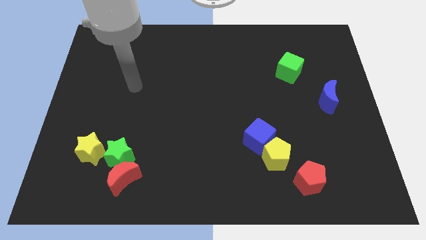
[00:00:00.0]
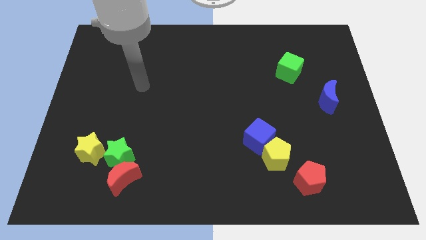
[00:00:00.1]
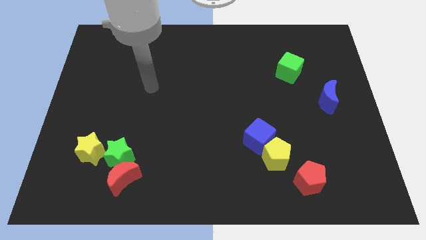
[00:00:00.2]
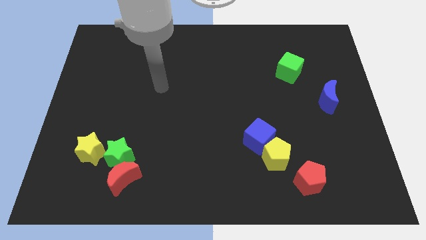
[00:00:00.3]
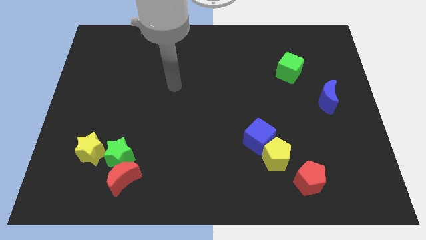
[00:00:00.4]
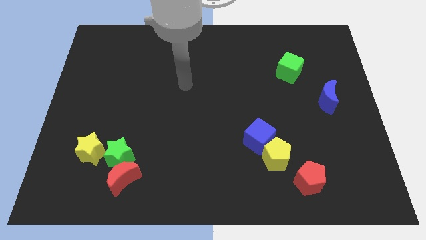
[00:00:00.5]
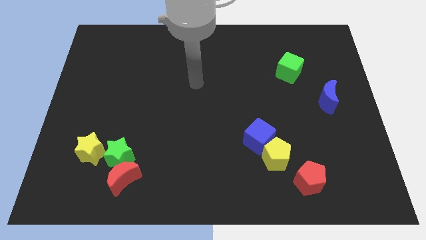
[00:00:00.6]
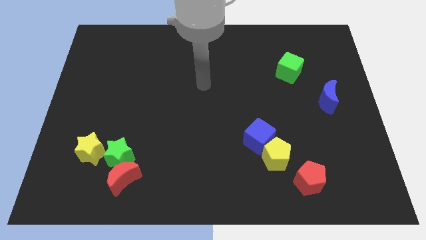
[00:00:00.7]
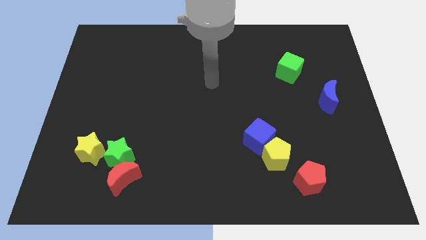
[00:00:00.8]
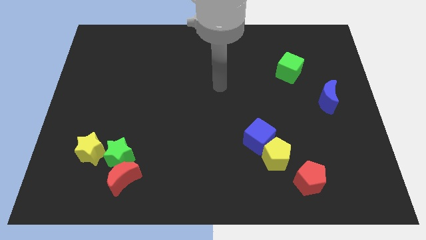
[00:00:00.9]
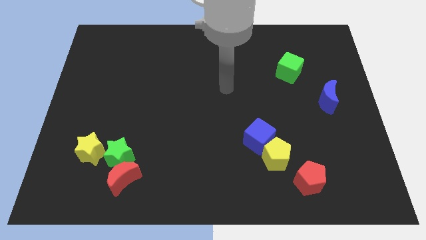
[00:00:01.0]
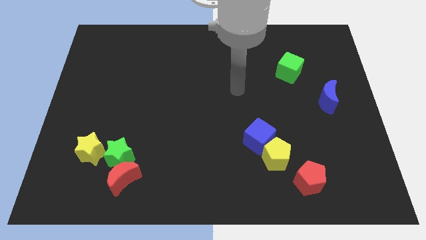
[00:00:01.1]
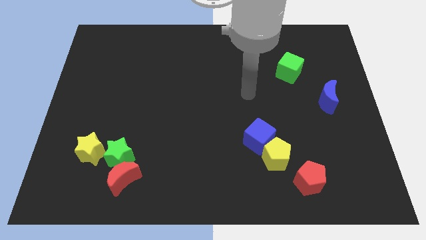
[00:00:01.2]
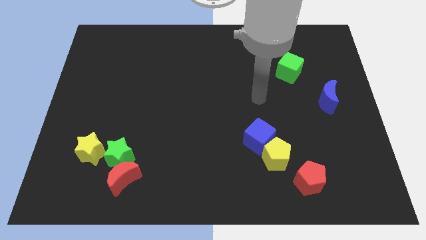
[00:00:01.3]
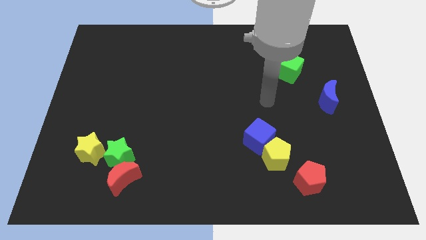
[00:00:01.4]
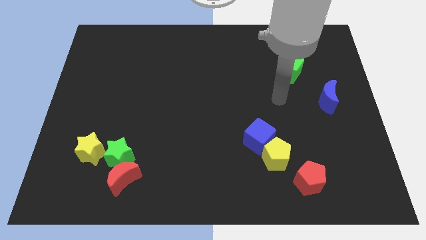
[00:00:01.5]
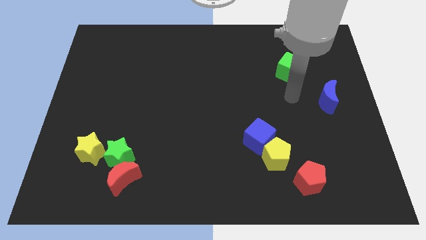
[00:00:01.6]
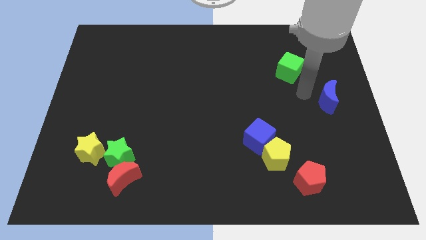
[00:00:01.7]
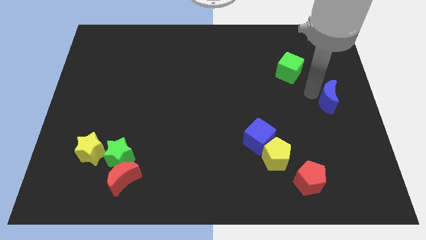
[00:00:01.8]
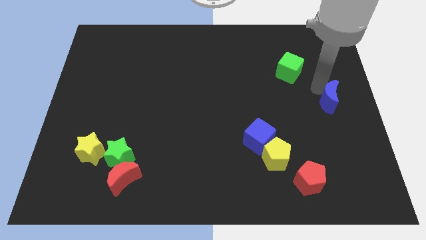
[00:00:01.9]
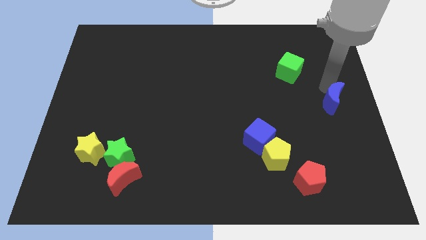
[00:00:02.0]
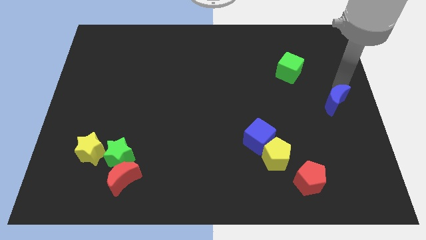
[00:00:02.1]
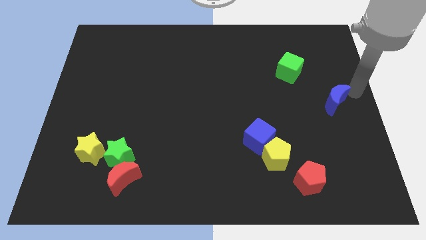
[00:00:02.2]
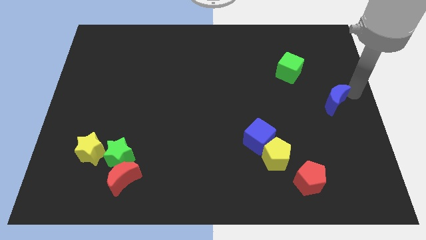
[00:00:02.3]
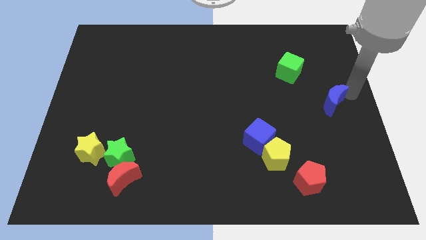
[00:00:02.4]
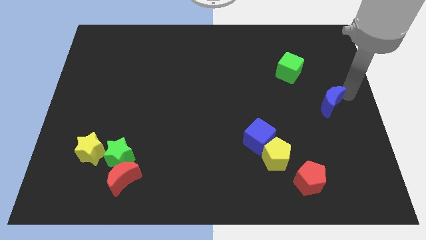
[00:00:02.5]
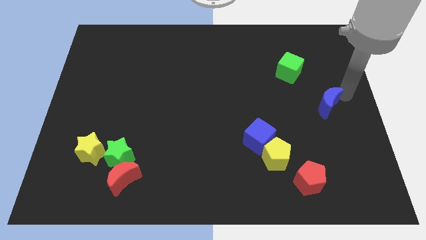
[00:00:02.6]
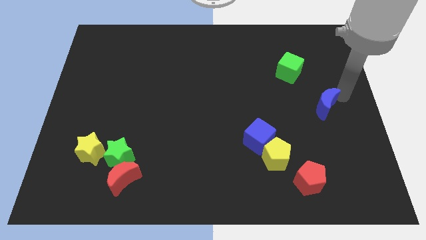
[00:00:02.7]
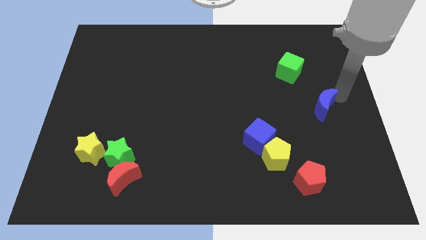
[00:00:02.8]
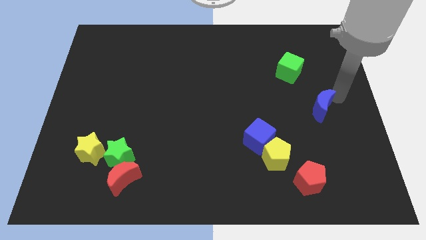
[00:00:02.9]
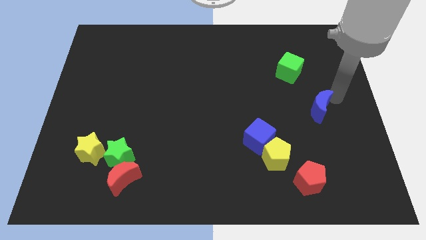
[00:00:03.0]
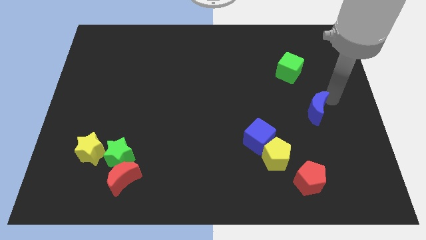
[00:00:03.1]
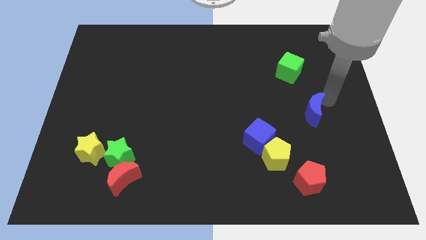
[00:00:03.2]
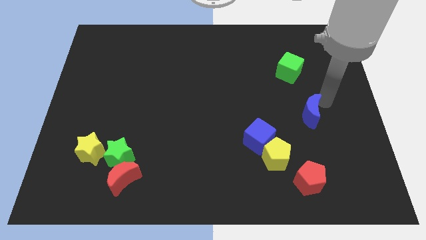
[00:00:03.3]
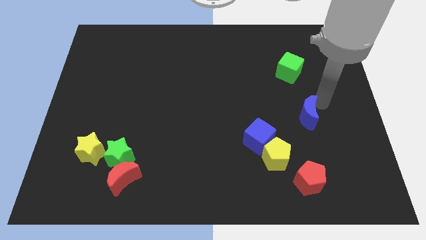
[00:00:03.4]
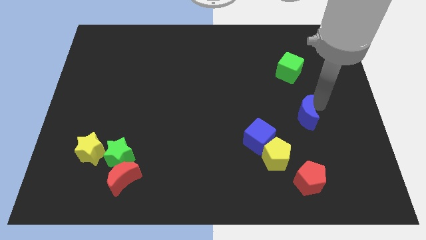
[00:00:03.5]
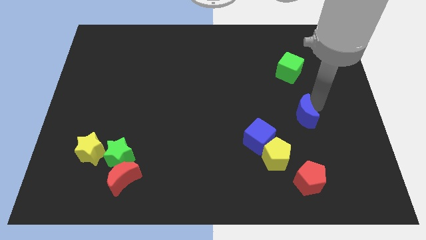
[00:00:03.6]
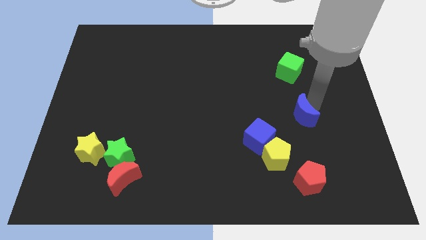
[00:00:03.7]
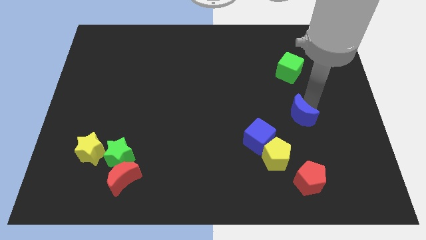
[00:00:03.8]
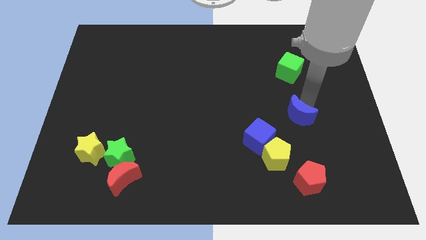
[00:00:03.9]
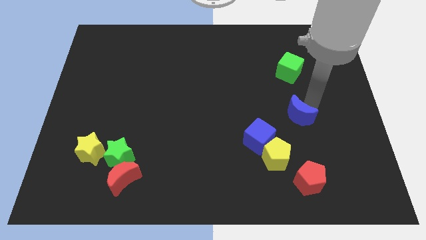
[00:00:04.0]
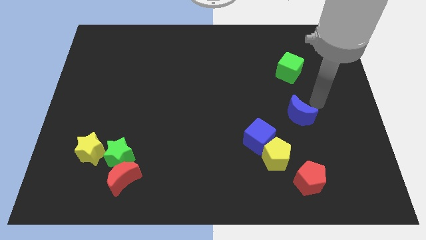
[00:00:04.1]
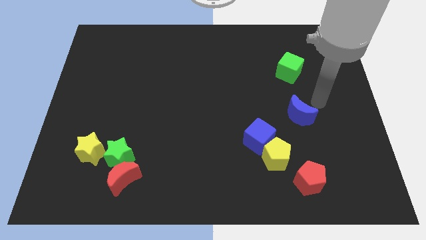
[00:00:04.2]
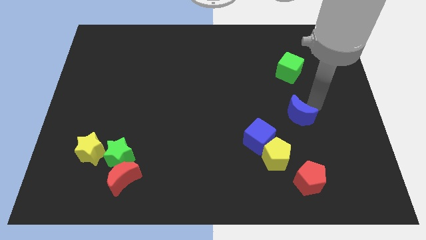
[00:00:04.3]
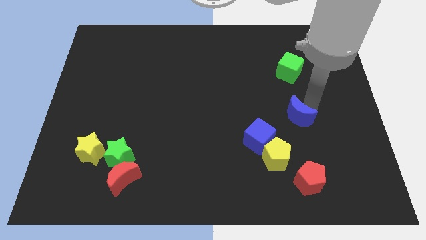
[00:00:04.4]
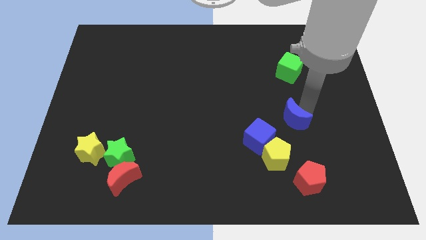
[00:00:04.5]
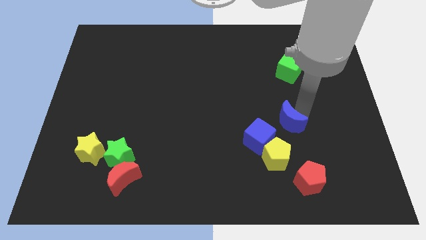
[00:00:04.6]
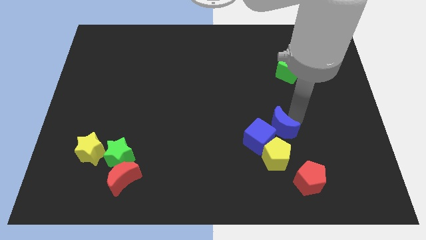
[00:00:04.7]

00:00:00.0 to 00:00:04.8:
move the blue moon towards the blue cube

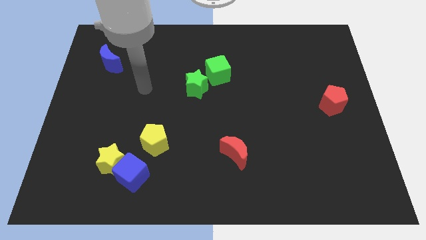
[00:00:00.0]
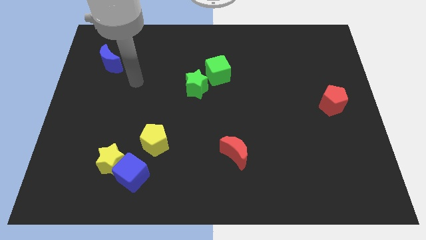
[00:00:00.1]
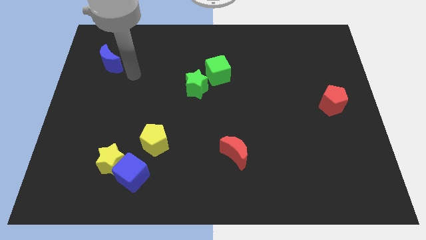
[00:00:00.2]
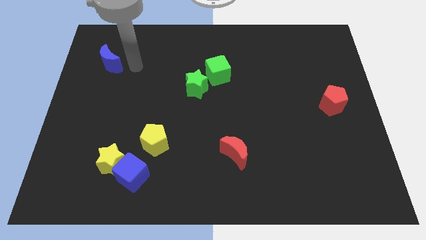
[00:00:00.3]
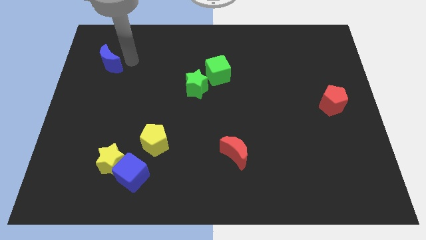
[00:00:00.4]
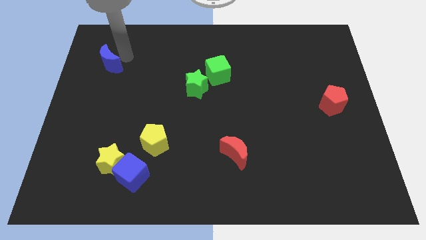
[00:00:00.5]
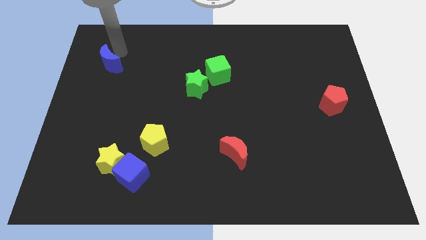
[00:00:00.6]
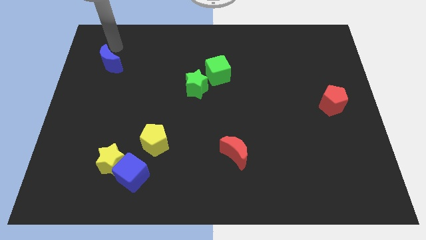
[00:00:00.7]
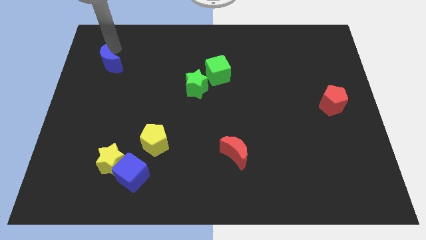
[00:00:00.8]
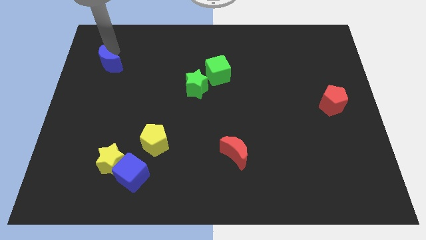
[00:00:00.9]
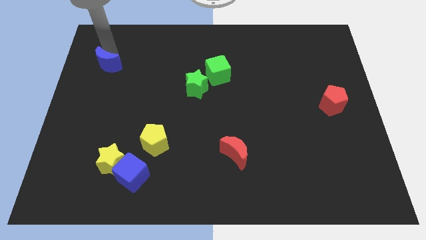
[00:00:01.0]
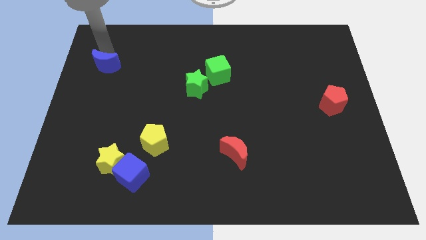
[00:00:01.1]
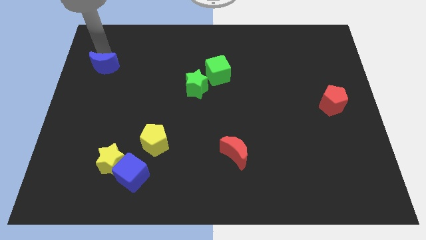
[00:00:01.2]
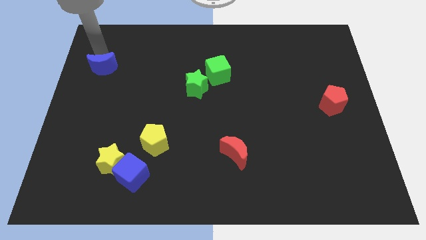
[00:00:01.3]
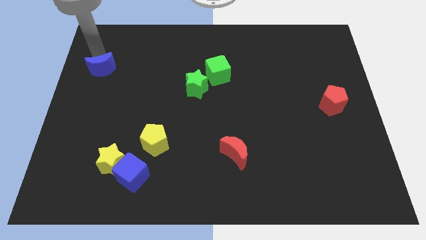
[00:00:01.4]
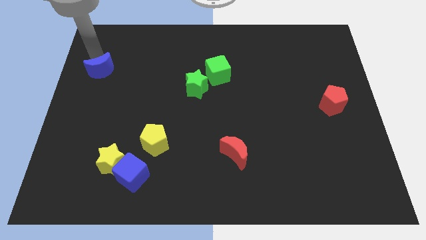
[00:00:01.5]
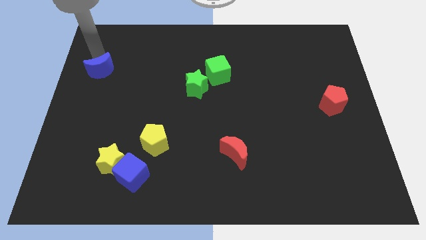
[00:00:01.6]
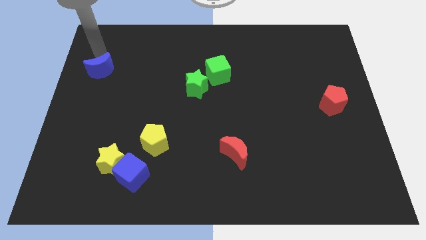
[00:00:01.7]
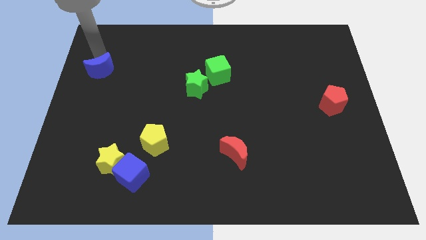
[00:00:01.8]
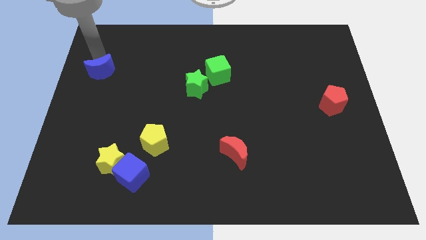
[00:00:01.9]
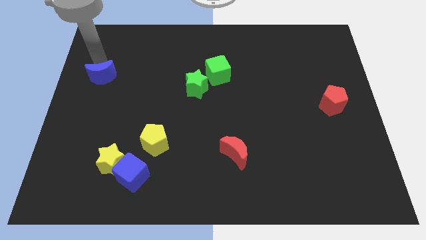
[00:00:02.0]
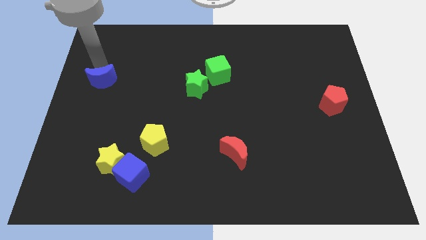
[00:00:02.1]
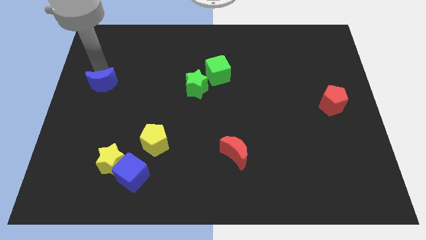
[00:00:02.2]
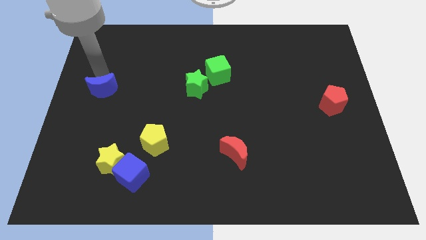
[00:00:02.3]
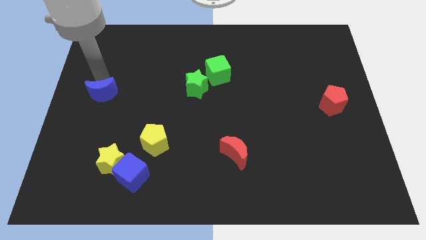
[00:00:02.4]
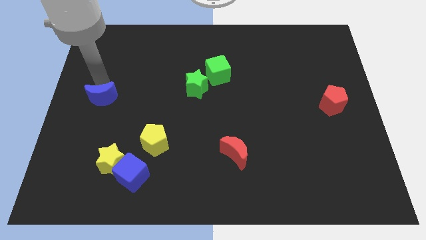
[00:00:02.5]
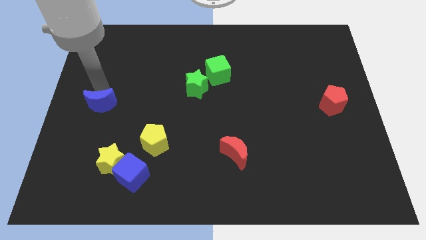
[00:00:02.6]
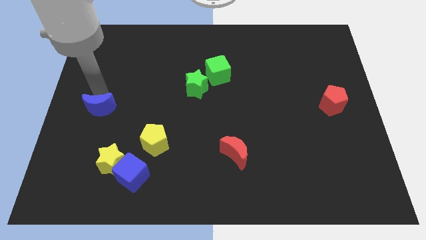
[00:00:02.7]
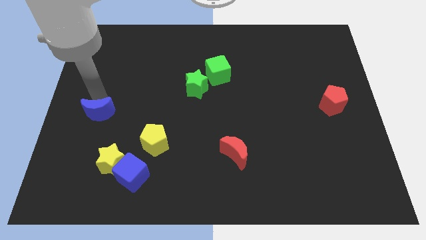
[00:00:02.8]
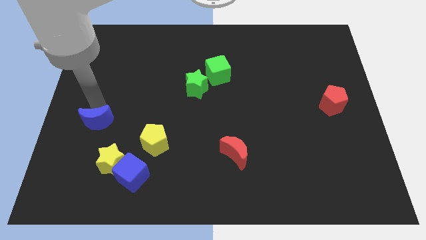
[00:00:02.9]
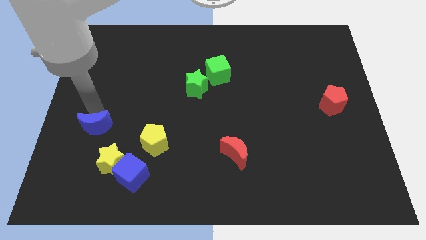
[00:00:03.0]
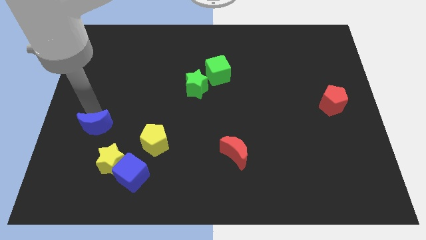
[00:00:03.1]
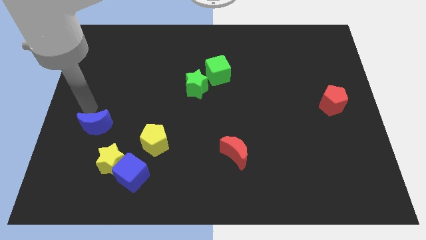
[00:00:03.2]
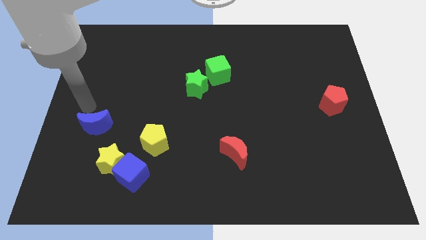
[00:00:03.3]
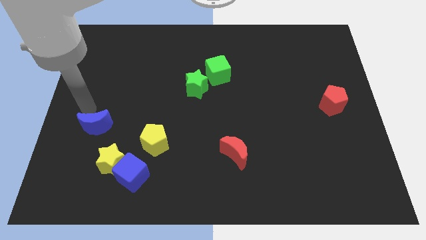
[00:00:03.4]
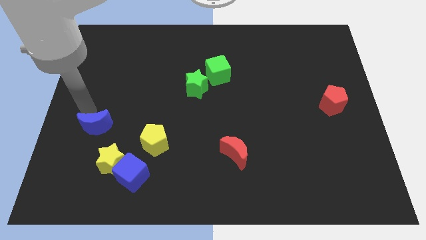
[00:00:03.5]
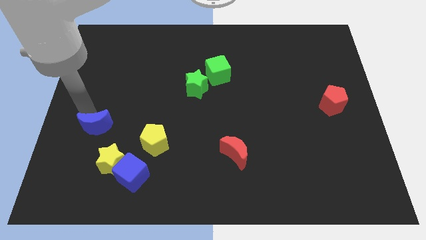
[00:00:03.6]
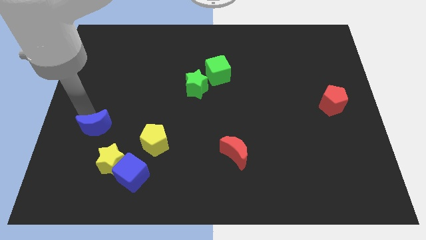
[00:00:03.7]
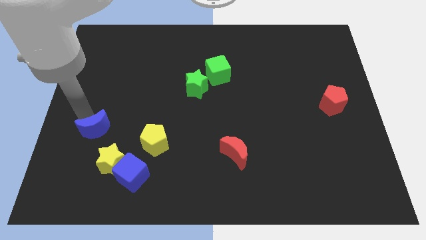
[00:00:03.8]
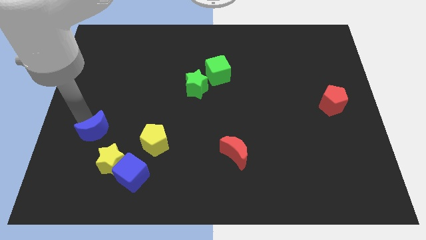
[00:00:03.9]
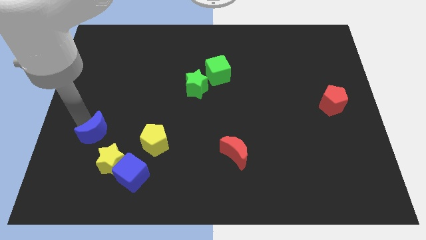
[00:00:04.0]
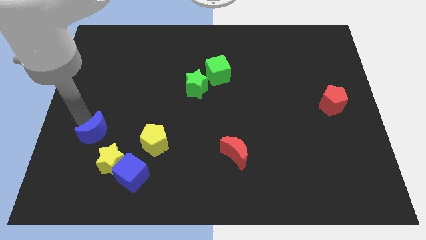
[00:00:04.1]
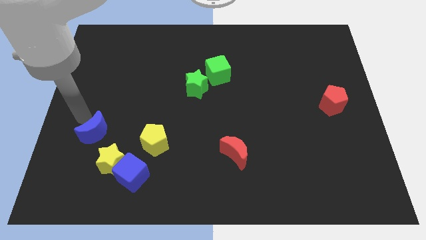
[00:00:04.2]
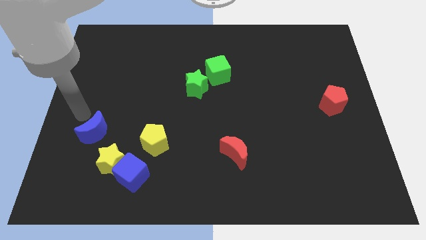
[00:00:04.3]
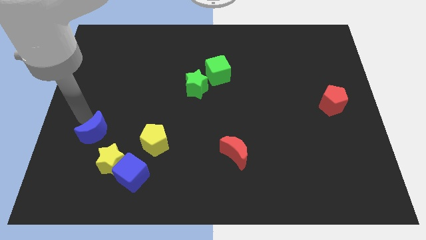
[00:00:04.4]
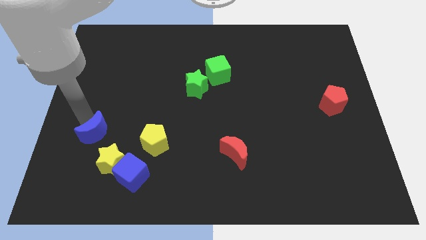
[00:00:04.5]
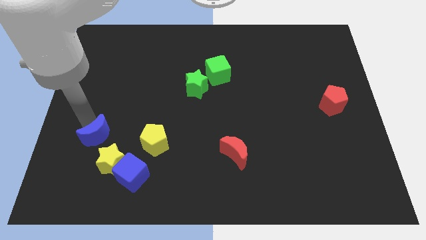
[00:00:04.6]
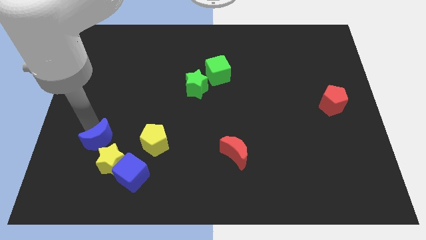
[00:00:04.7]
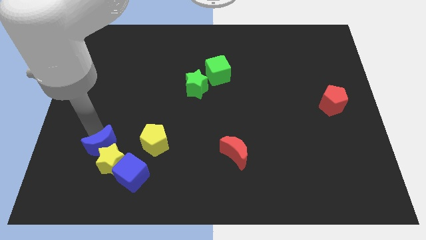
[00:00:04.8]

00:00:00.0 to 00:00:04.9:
move the blue moon close to the yellow star
